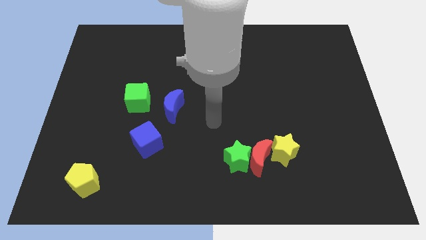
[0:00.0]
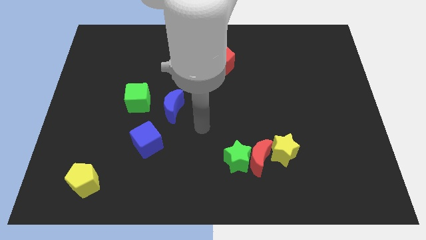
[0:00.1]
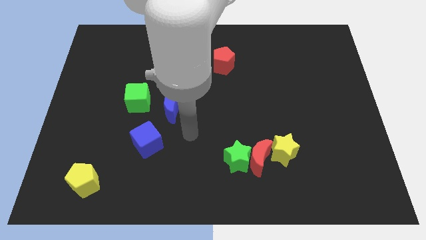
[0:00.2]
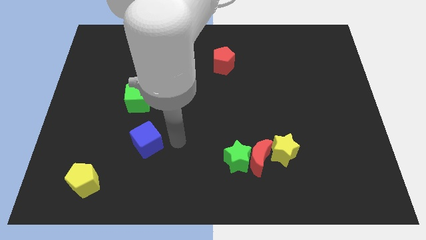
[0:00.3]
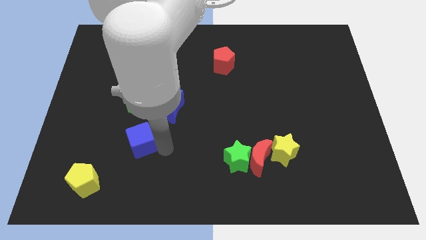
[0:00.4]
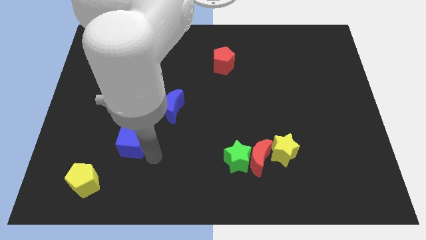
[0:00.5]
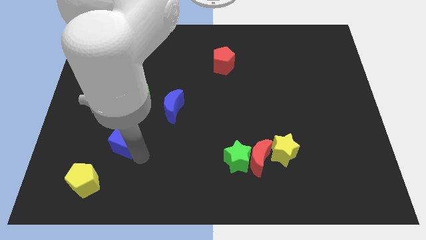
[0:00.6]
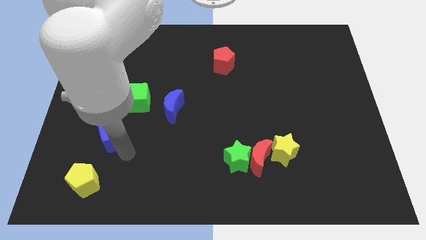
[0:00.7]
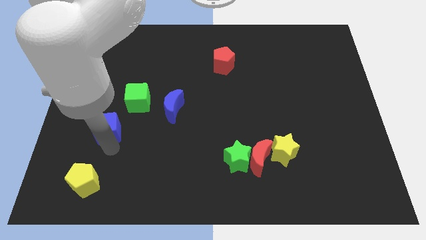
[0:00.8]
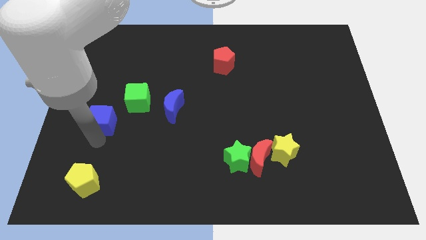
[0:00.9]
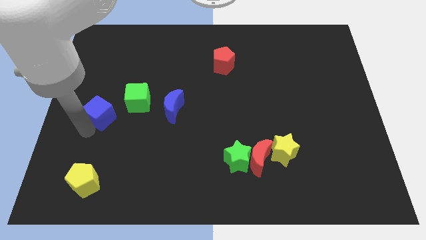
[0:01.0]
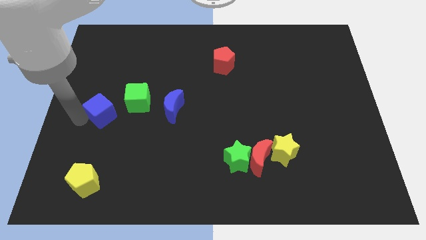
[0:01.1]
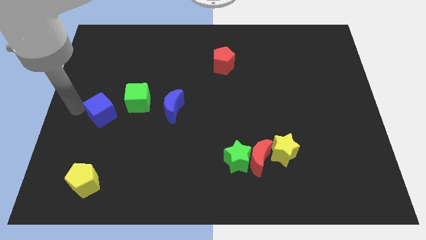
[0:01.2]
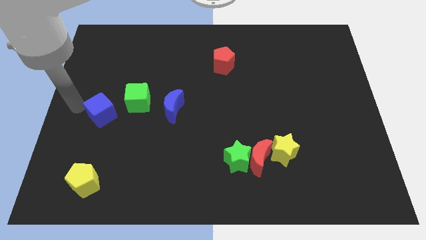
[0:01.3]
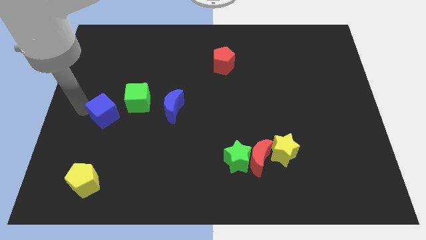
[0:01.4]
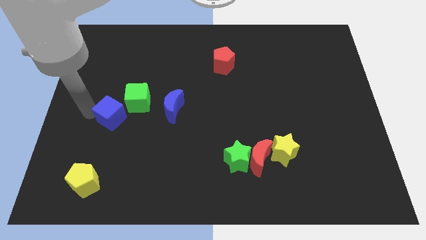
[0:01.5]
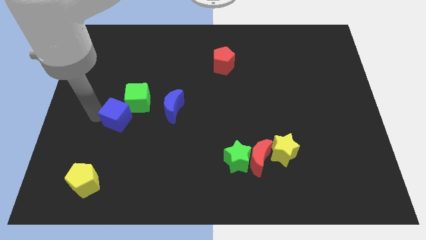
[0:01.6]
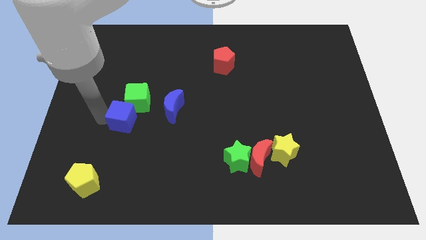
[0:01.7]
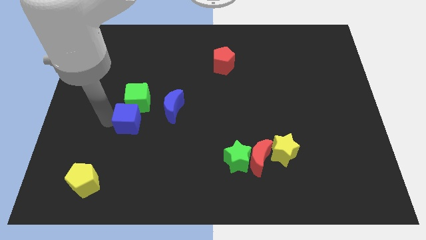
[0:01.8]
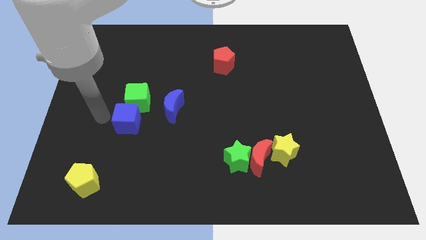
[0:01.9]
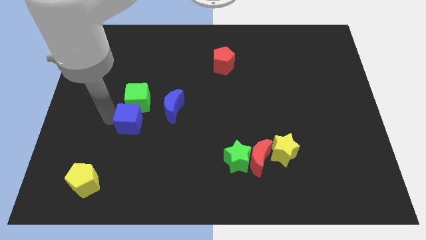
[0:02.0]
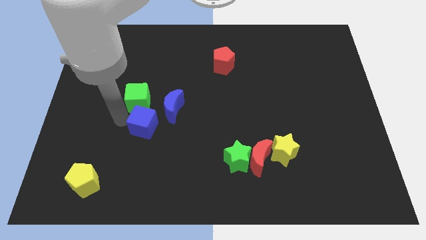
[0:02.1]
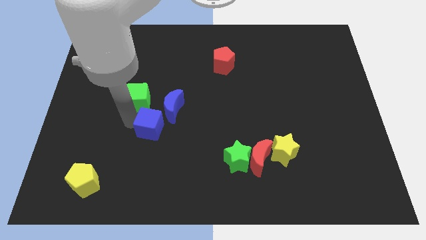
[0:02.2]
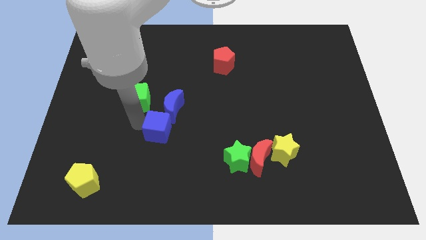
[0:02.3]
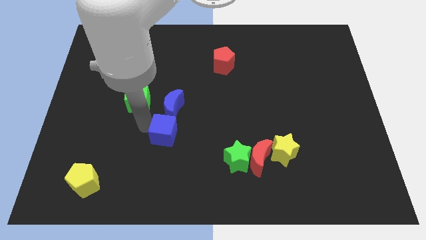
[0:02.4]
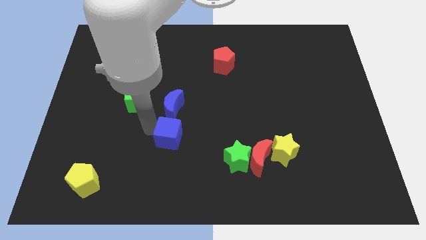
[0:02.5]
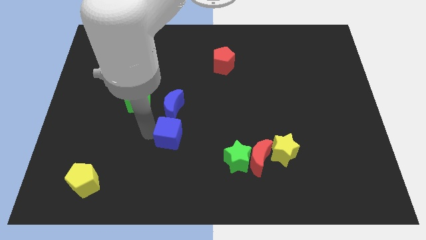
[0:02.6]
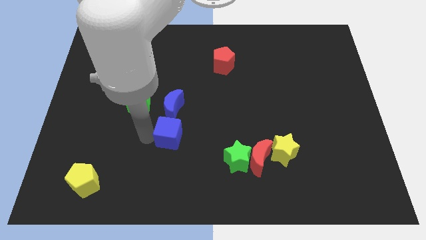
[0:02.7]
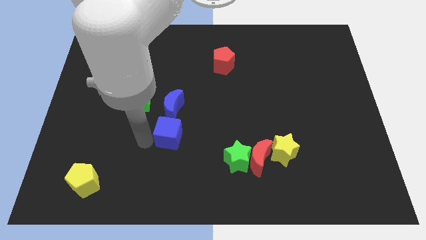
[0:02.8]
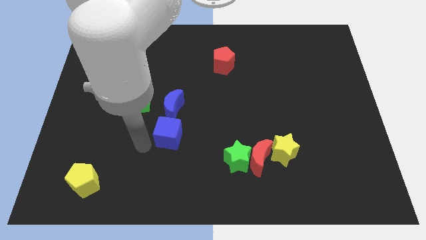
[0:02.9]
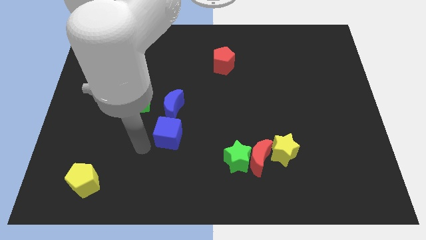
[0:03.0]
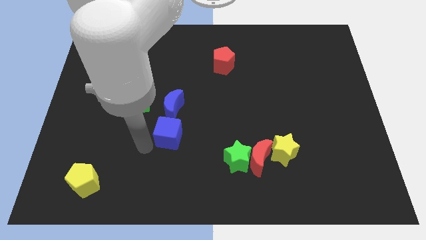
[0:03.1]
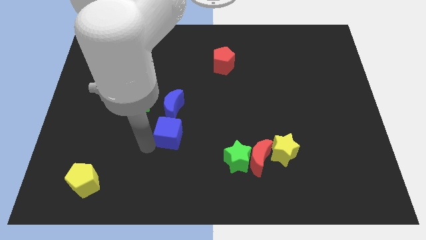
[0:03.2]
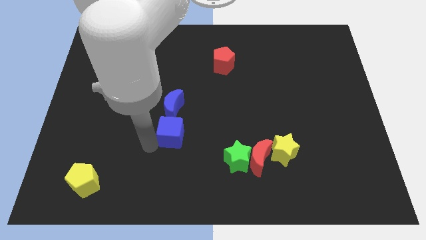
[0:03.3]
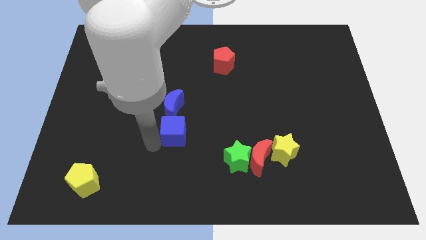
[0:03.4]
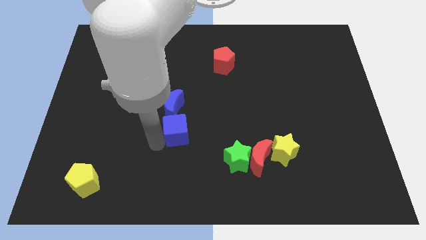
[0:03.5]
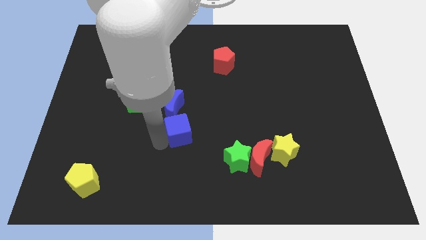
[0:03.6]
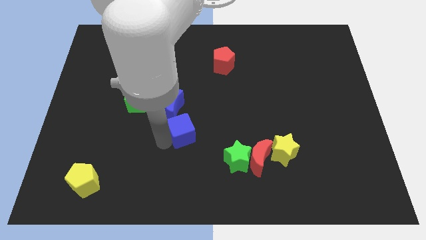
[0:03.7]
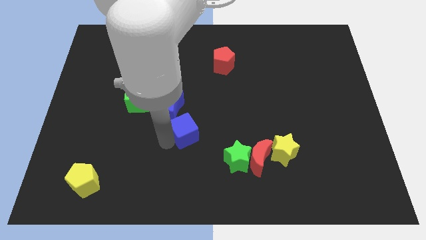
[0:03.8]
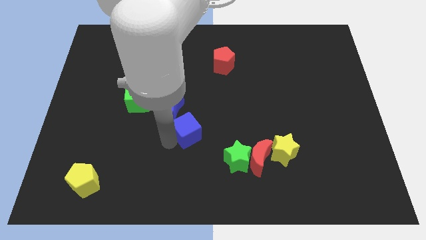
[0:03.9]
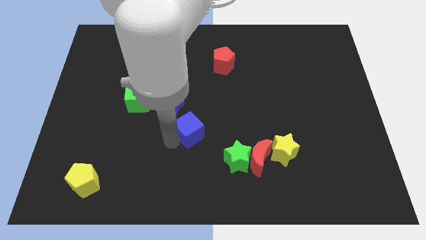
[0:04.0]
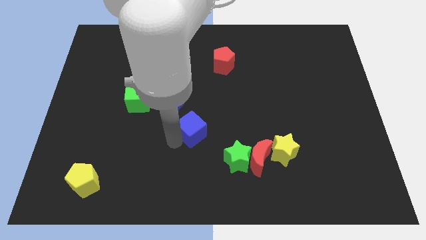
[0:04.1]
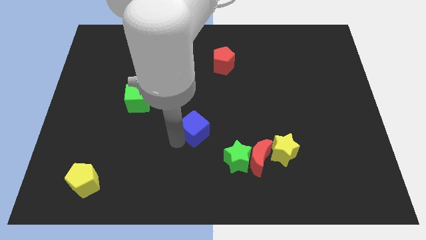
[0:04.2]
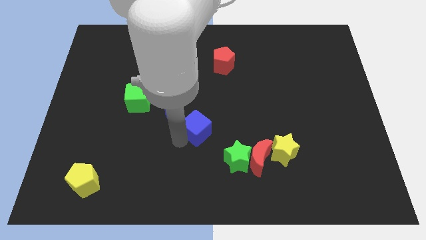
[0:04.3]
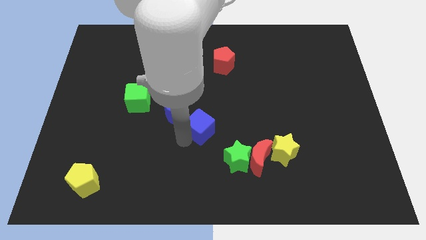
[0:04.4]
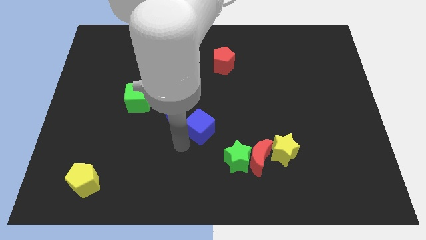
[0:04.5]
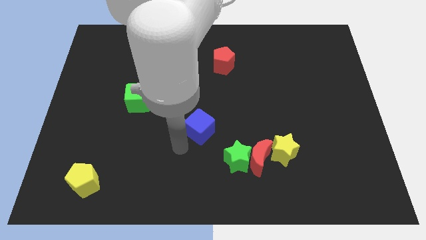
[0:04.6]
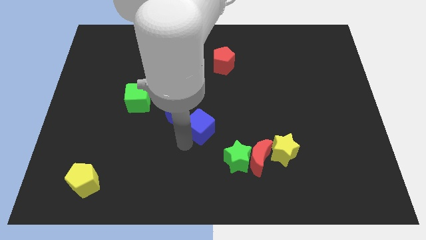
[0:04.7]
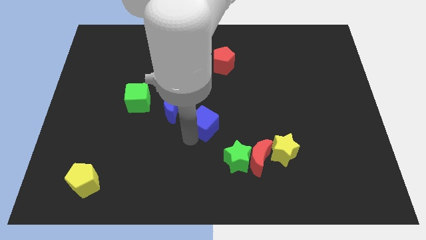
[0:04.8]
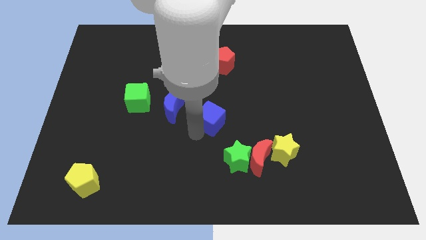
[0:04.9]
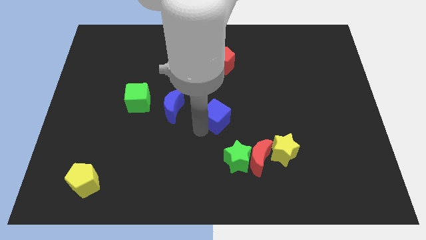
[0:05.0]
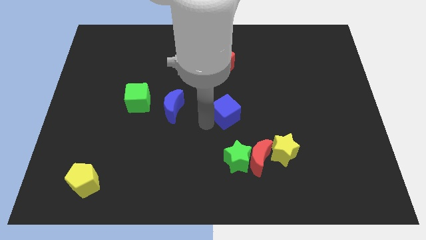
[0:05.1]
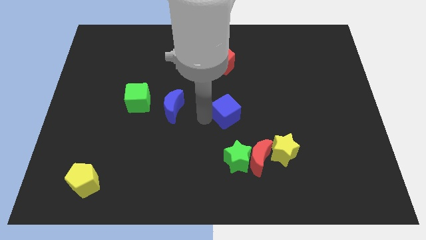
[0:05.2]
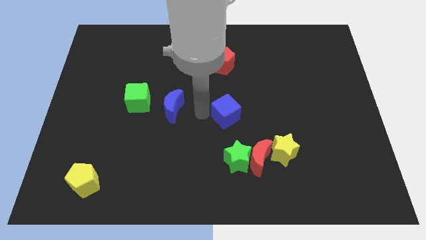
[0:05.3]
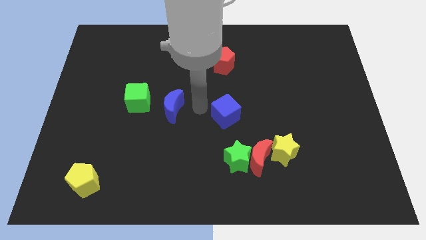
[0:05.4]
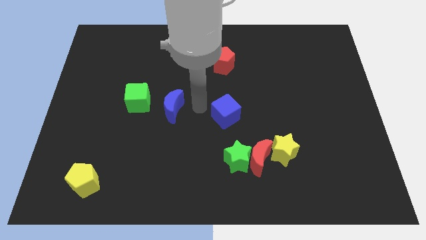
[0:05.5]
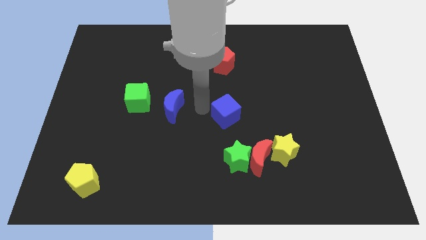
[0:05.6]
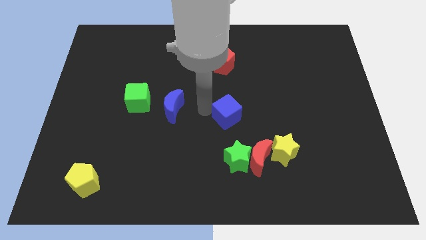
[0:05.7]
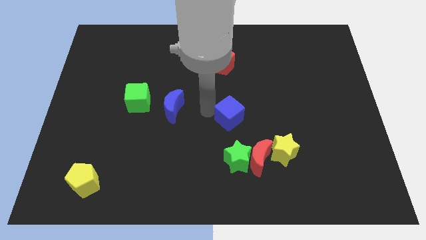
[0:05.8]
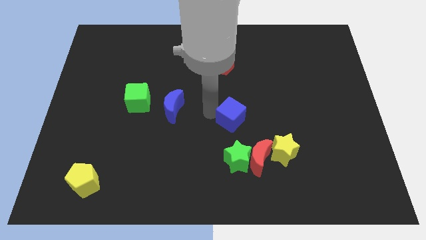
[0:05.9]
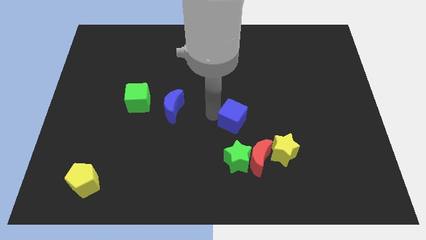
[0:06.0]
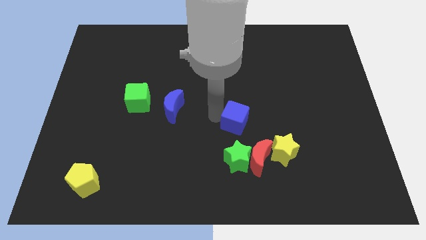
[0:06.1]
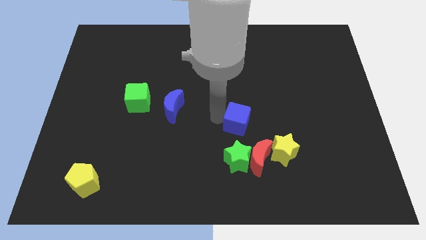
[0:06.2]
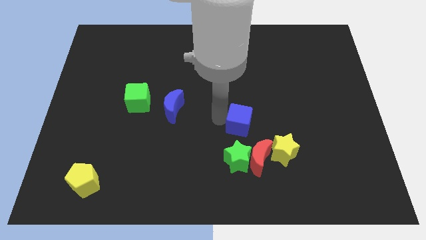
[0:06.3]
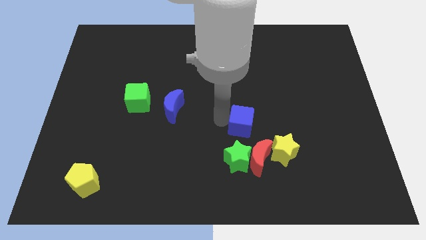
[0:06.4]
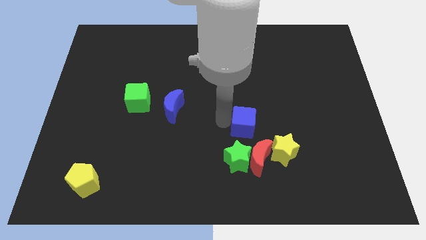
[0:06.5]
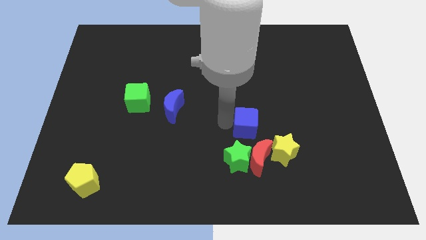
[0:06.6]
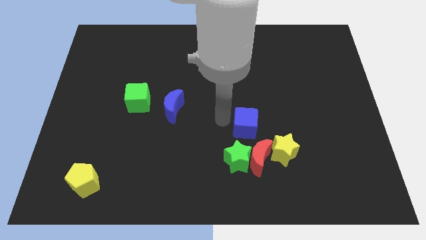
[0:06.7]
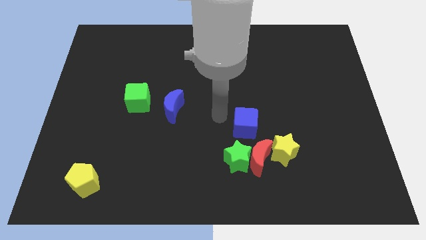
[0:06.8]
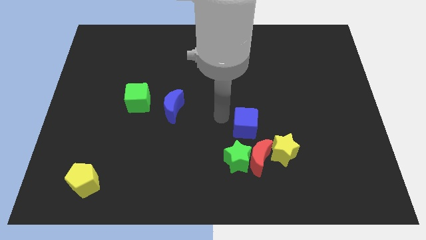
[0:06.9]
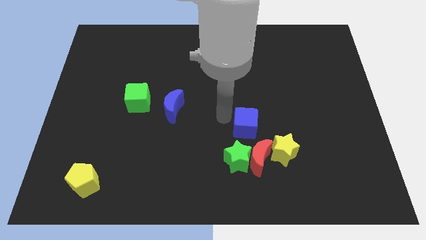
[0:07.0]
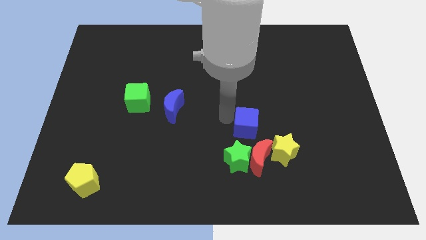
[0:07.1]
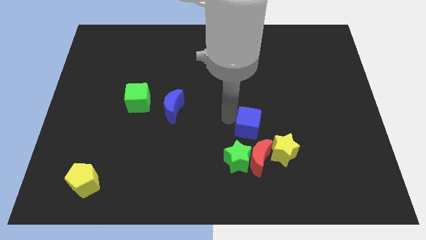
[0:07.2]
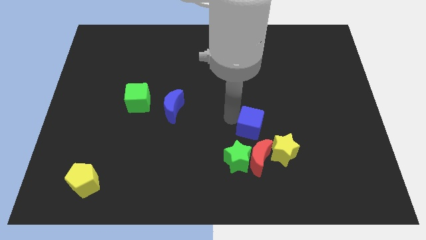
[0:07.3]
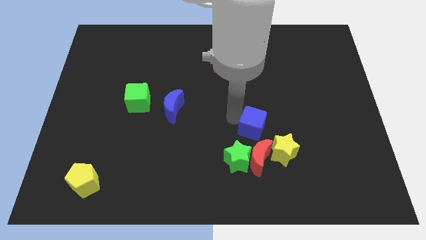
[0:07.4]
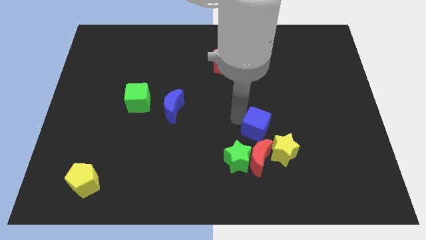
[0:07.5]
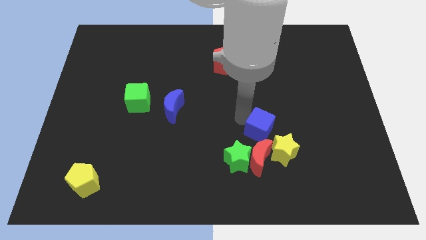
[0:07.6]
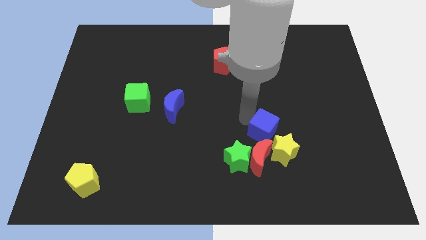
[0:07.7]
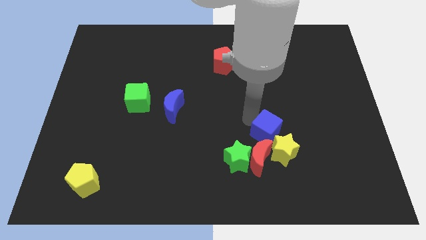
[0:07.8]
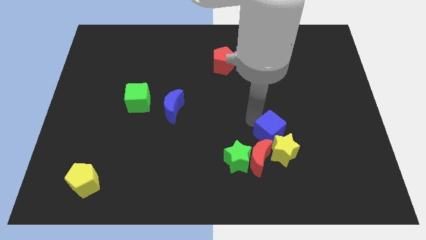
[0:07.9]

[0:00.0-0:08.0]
slide the blue cube close to the yellow star
